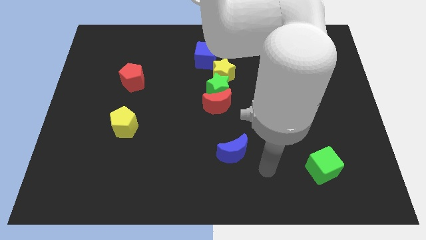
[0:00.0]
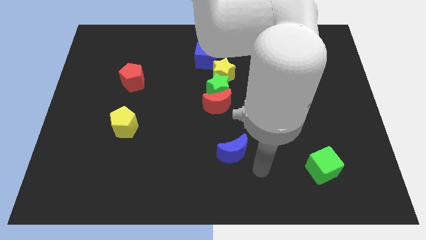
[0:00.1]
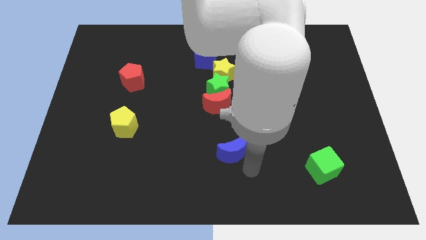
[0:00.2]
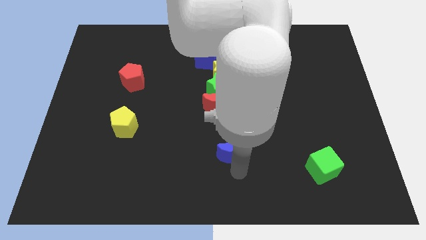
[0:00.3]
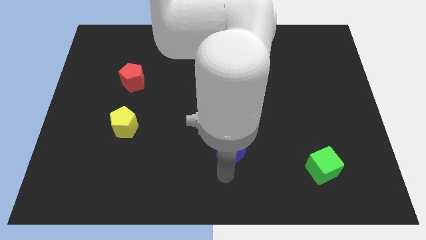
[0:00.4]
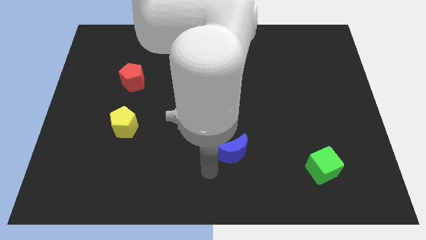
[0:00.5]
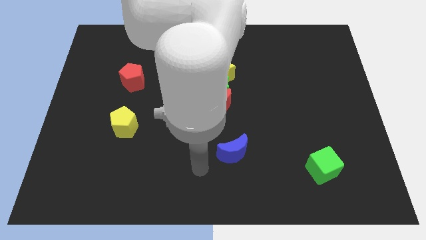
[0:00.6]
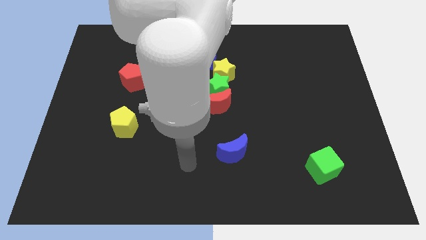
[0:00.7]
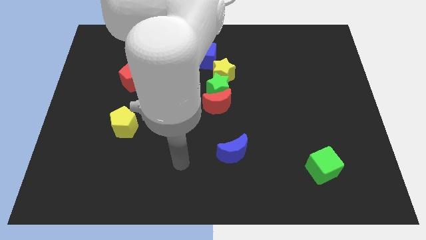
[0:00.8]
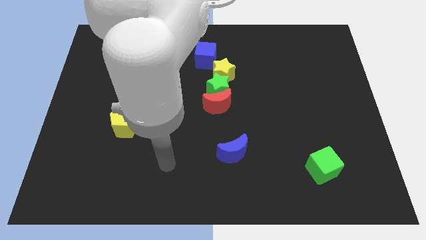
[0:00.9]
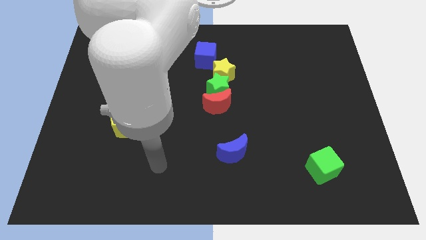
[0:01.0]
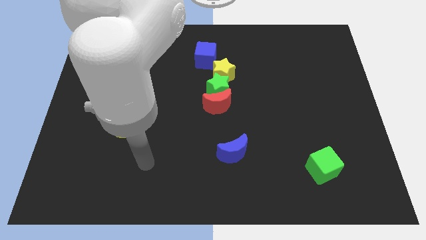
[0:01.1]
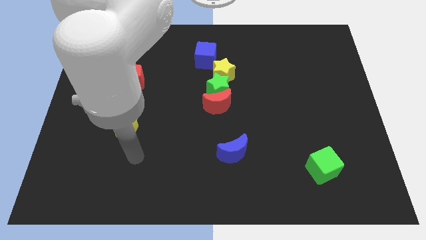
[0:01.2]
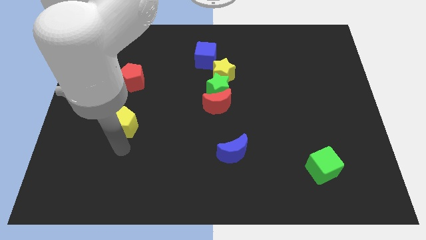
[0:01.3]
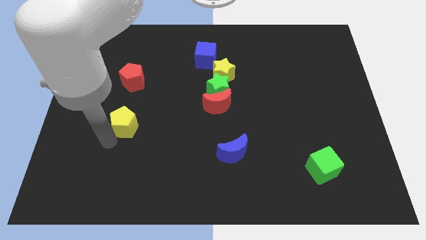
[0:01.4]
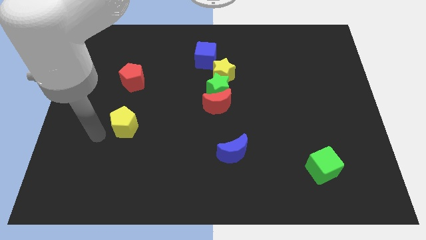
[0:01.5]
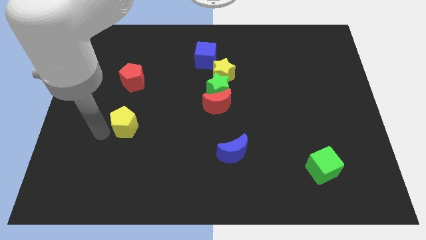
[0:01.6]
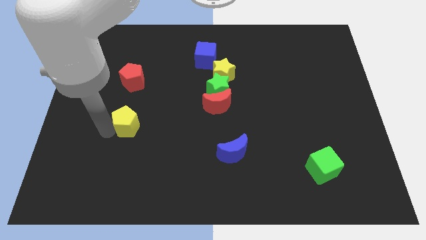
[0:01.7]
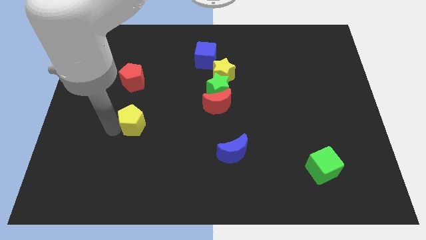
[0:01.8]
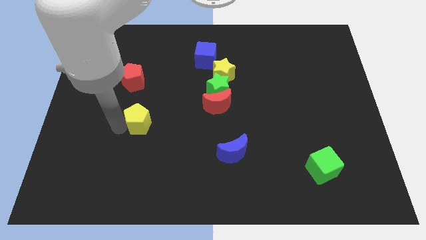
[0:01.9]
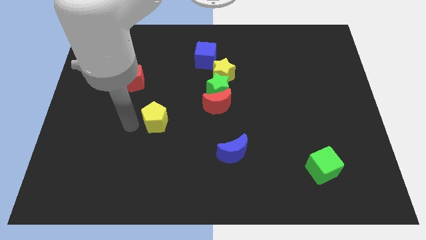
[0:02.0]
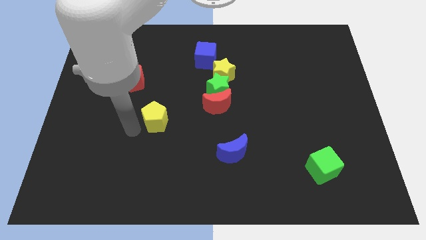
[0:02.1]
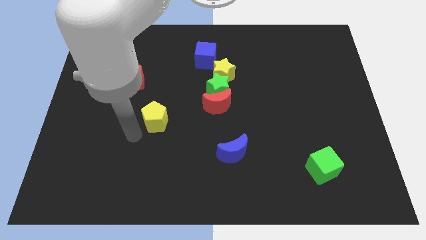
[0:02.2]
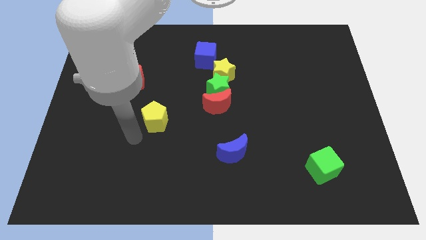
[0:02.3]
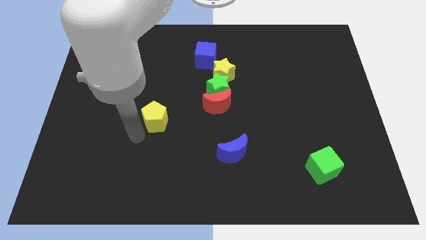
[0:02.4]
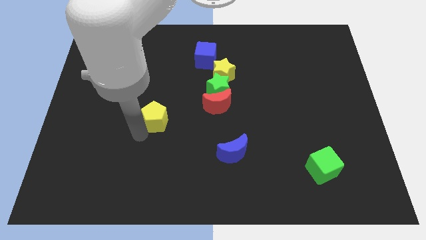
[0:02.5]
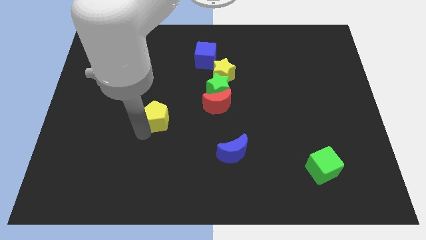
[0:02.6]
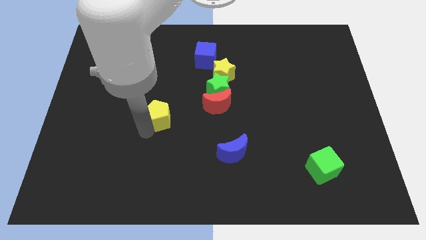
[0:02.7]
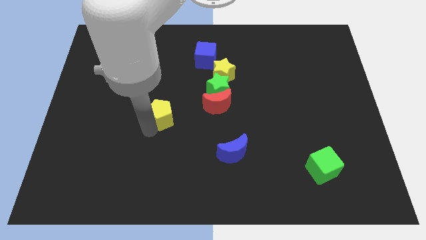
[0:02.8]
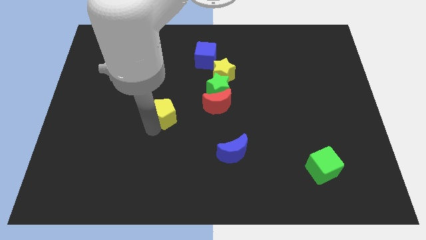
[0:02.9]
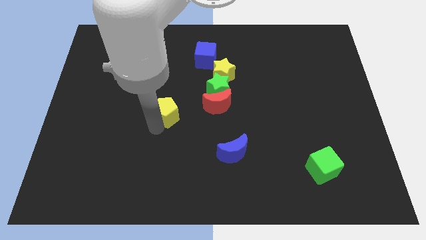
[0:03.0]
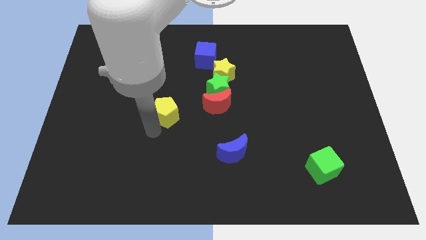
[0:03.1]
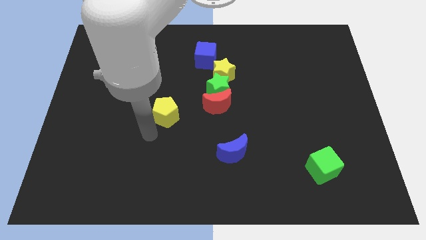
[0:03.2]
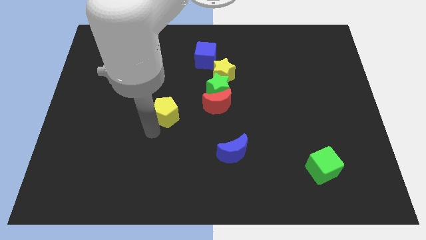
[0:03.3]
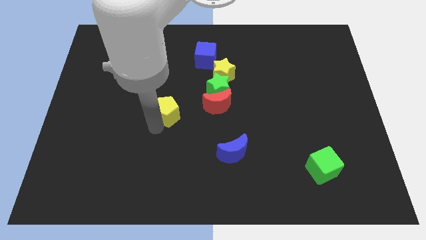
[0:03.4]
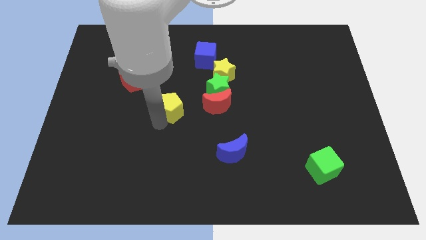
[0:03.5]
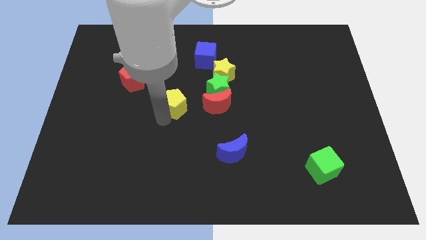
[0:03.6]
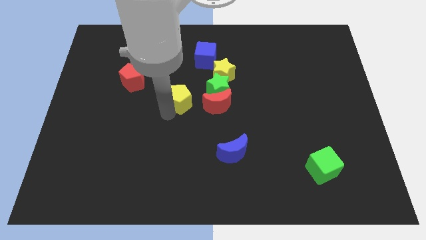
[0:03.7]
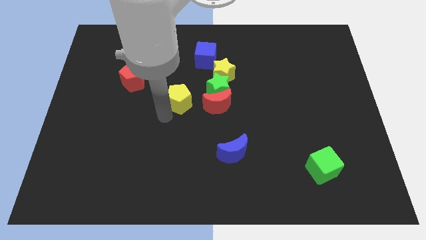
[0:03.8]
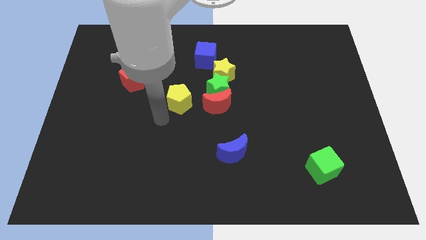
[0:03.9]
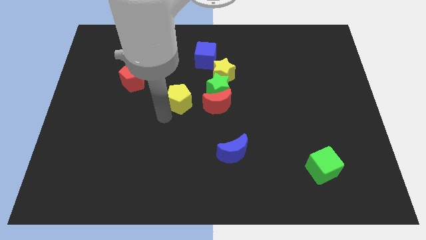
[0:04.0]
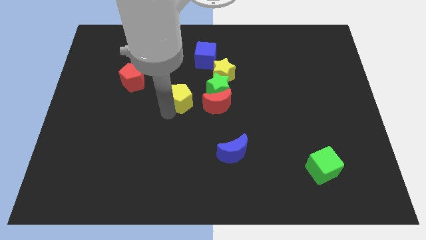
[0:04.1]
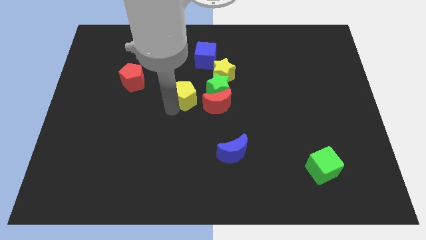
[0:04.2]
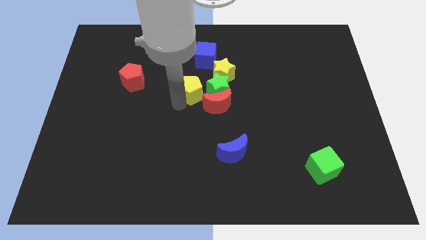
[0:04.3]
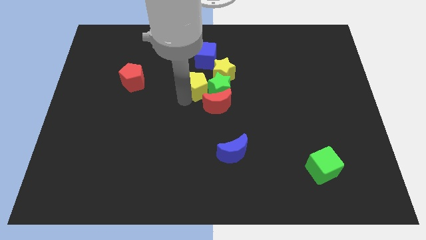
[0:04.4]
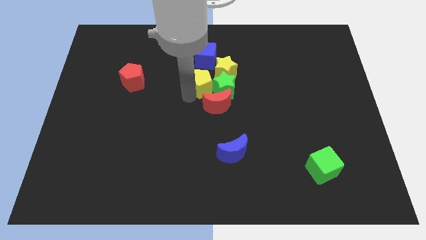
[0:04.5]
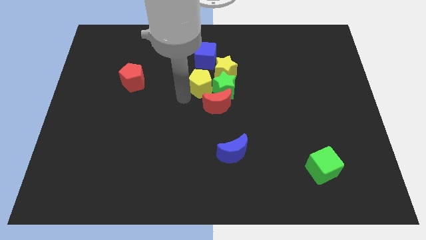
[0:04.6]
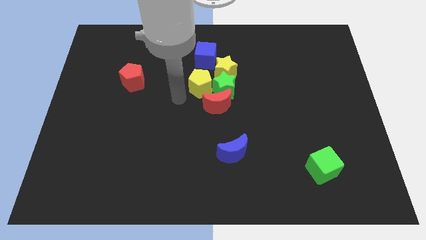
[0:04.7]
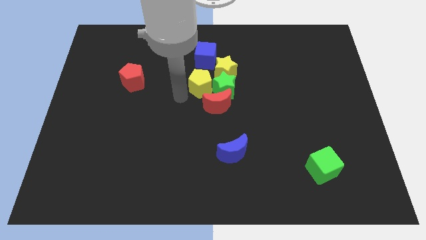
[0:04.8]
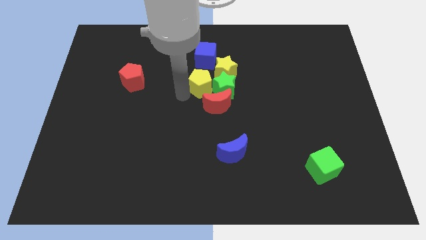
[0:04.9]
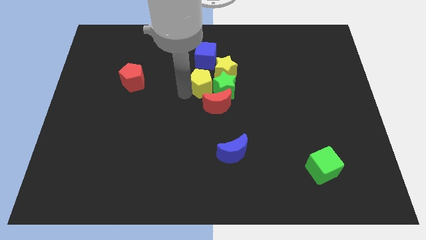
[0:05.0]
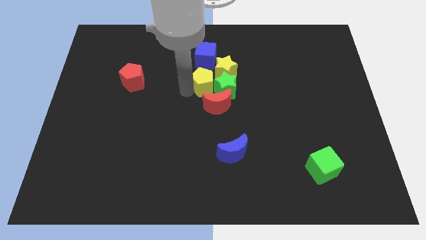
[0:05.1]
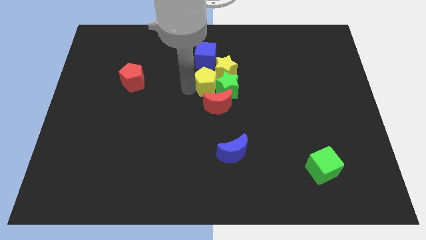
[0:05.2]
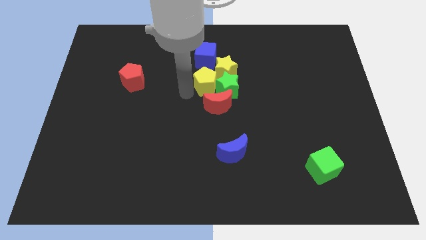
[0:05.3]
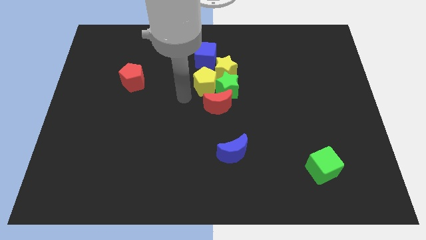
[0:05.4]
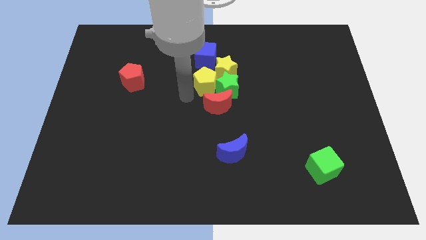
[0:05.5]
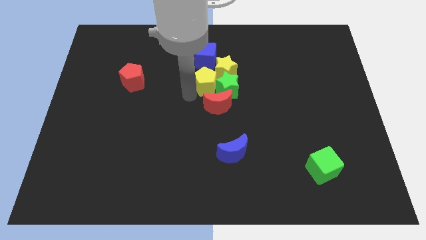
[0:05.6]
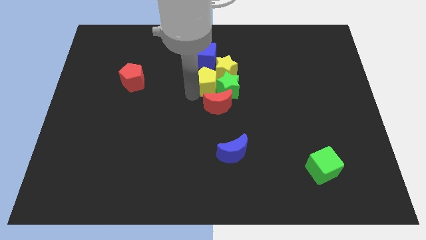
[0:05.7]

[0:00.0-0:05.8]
put the yellow pentagon towards the yellow star

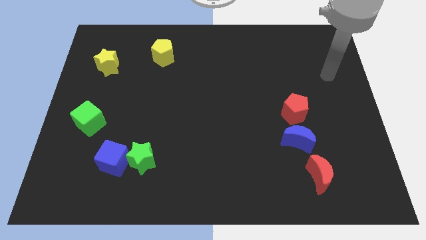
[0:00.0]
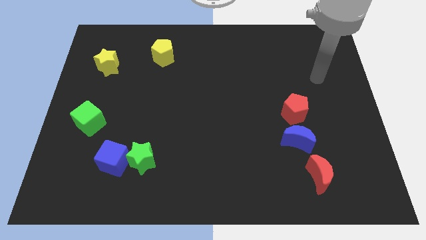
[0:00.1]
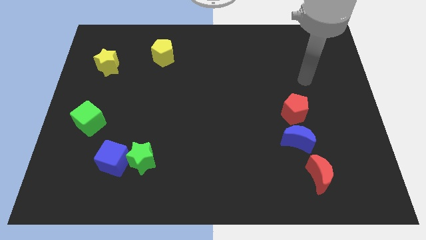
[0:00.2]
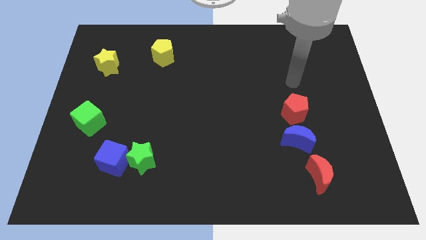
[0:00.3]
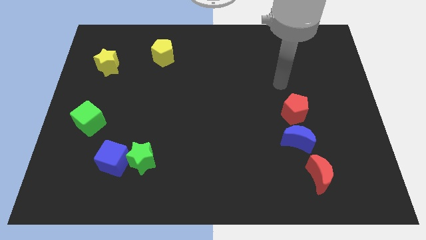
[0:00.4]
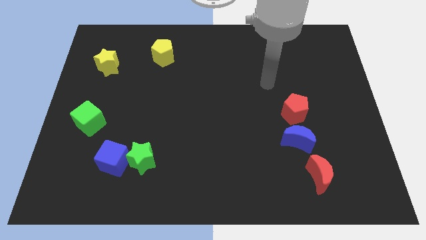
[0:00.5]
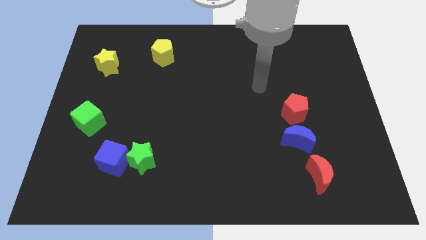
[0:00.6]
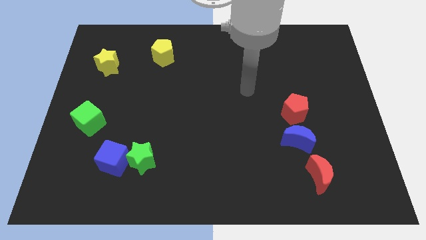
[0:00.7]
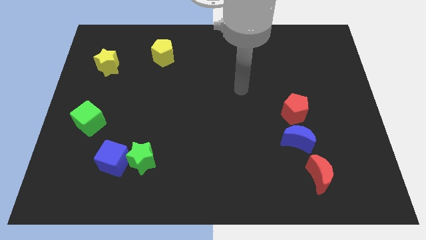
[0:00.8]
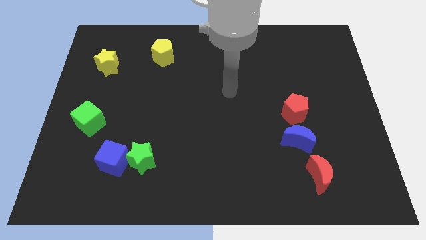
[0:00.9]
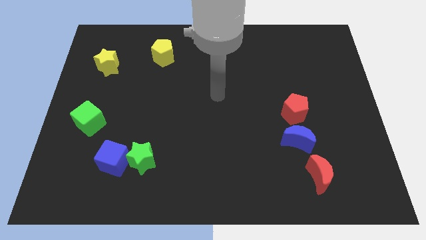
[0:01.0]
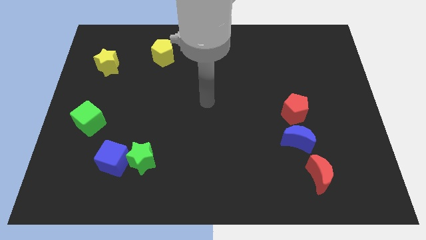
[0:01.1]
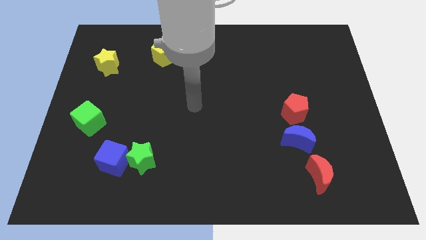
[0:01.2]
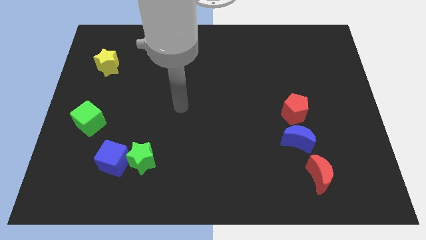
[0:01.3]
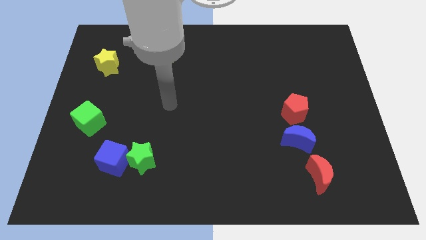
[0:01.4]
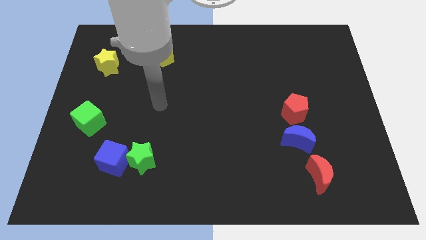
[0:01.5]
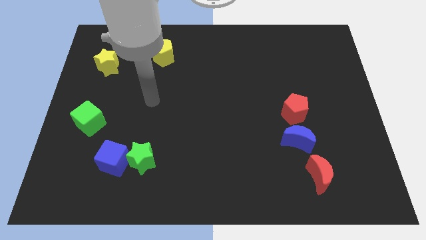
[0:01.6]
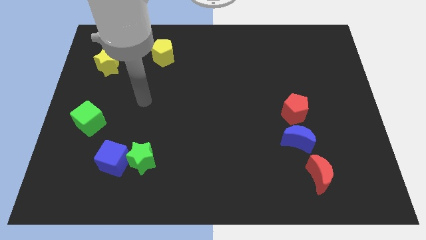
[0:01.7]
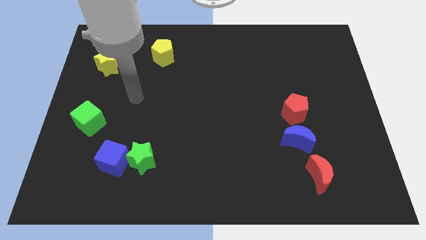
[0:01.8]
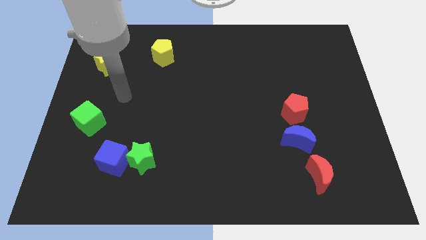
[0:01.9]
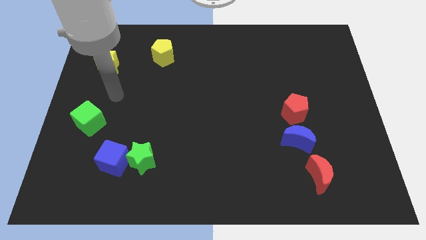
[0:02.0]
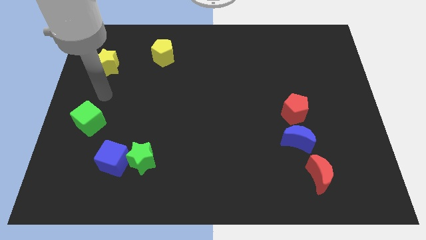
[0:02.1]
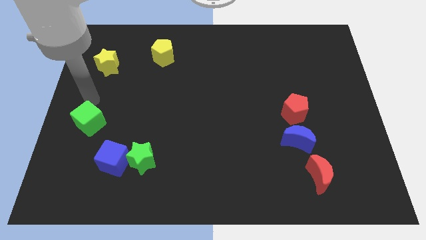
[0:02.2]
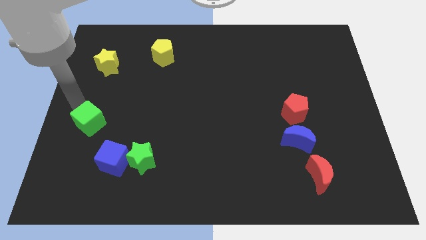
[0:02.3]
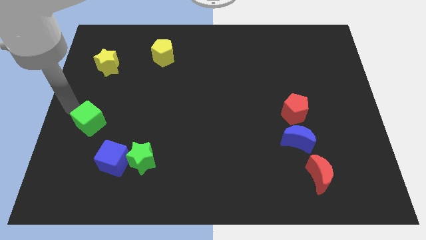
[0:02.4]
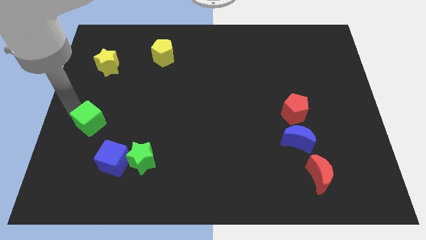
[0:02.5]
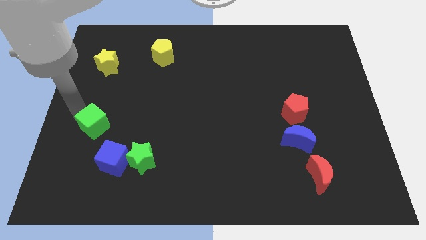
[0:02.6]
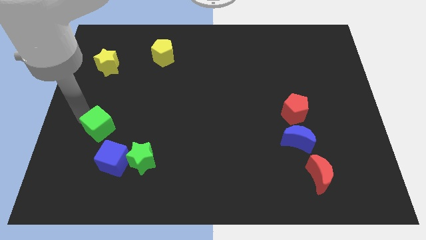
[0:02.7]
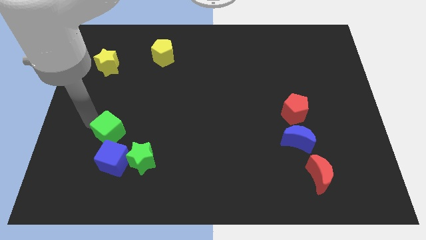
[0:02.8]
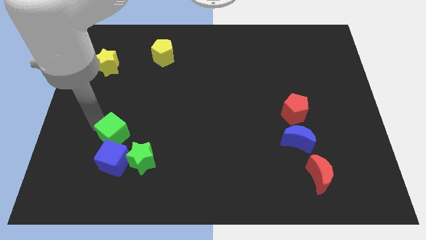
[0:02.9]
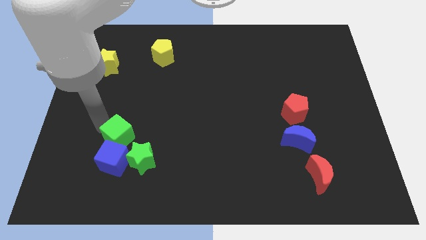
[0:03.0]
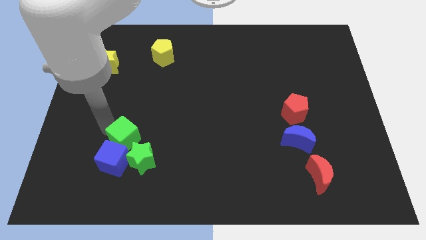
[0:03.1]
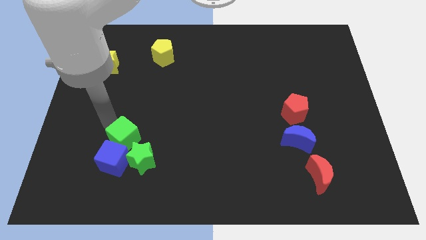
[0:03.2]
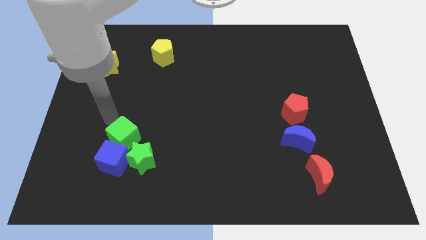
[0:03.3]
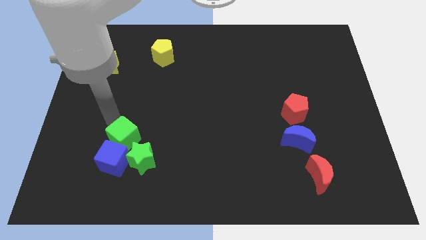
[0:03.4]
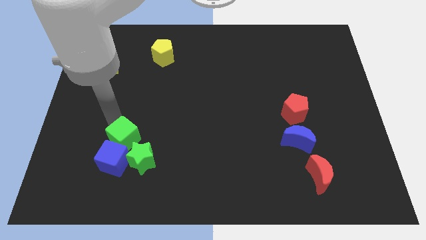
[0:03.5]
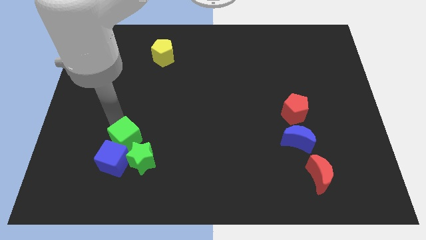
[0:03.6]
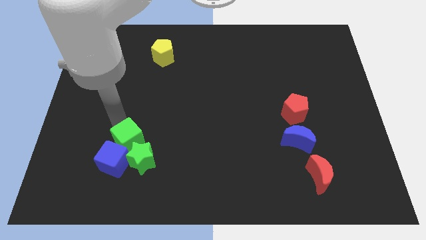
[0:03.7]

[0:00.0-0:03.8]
move the green cube to the green star
